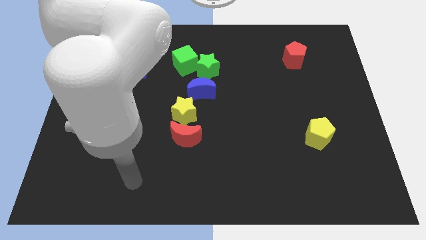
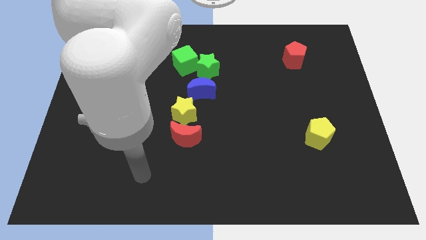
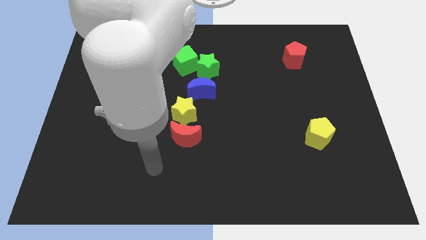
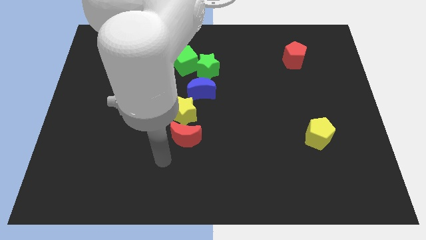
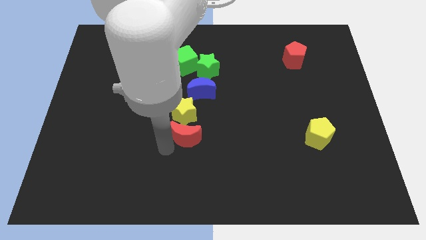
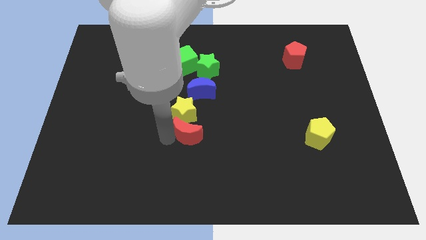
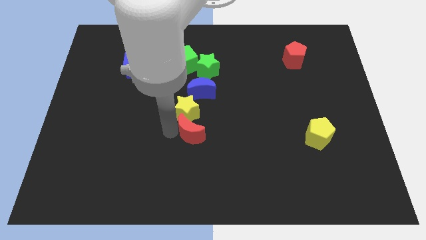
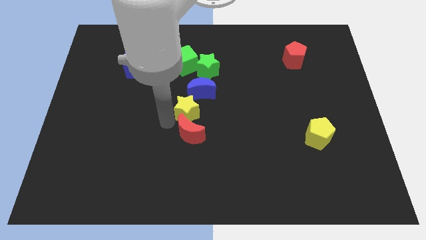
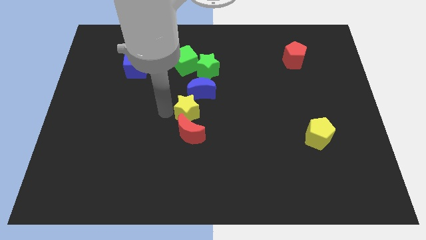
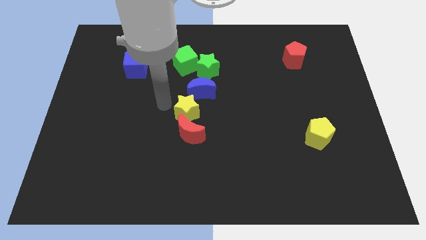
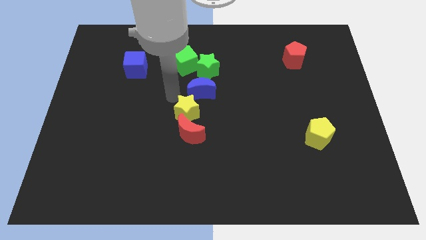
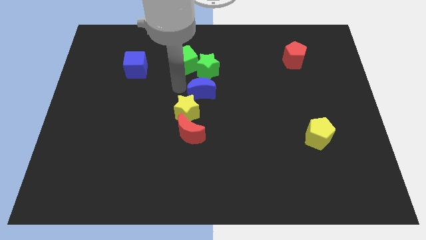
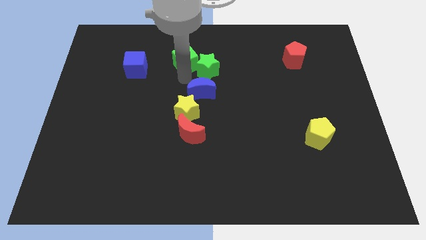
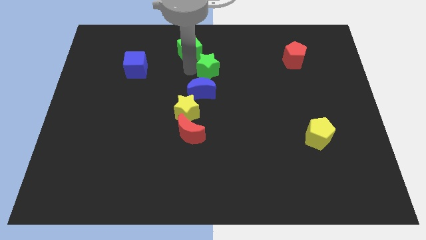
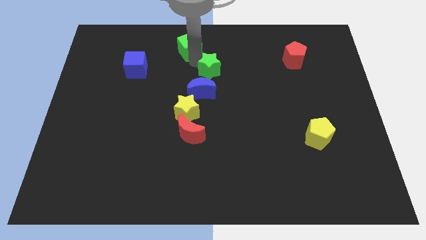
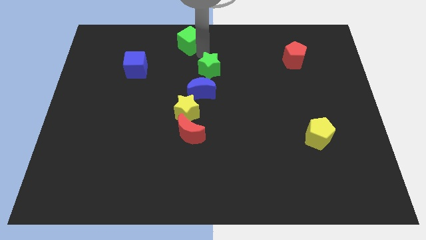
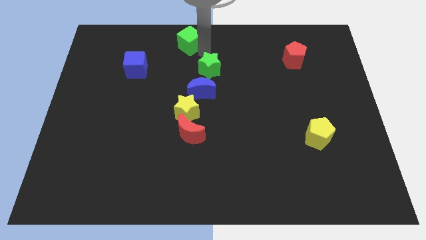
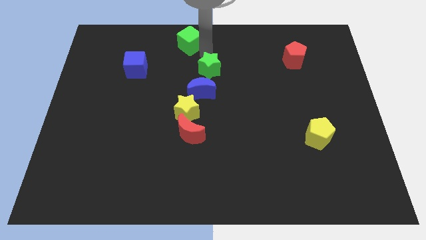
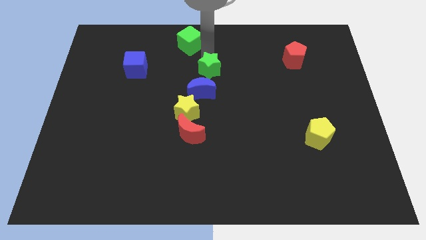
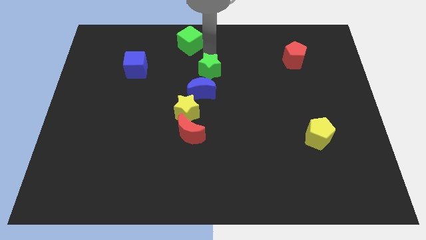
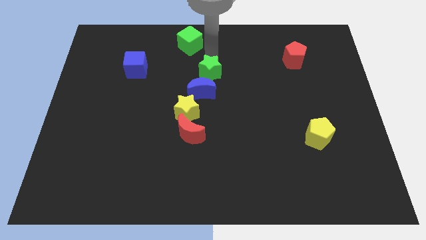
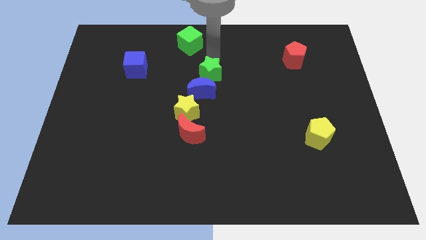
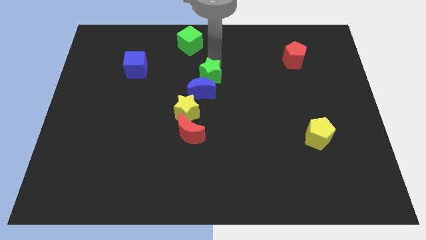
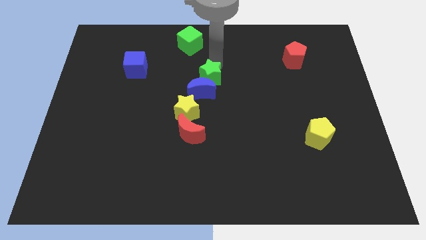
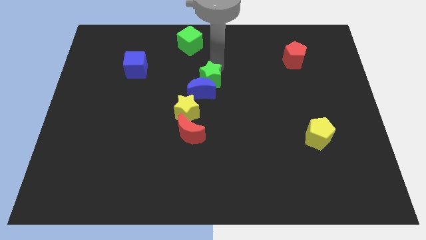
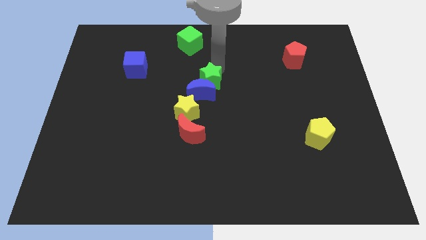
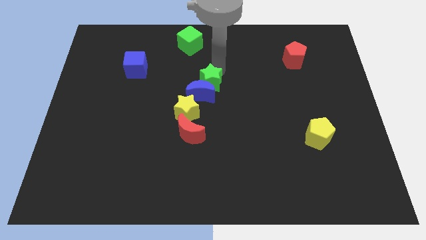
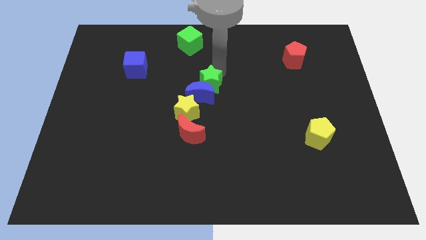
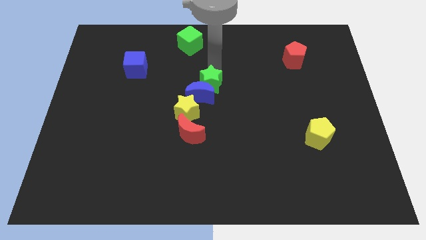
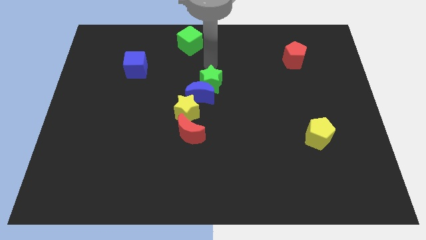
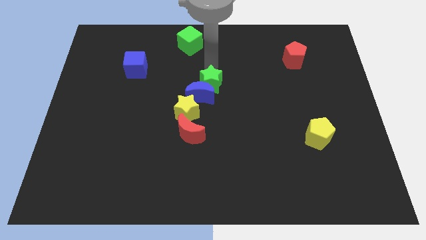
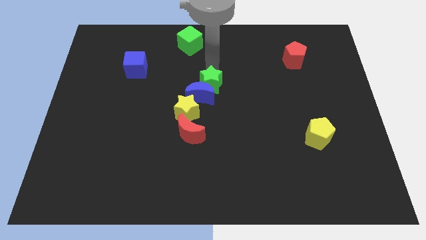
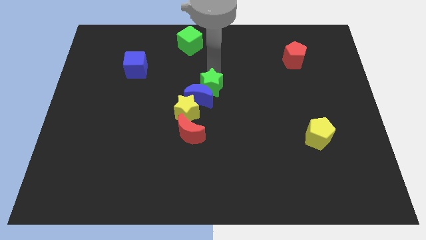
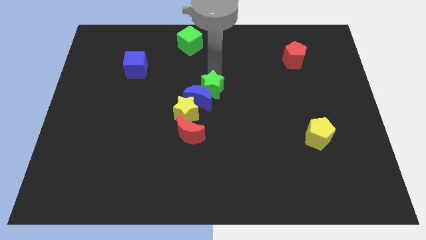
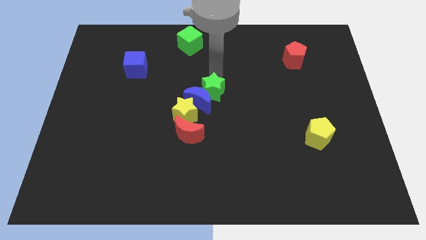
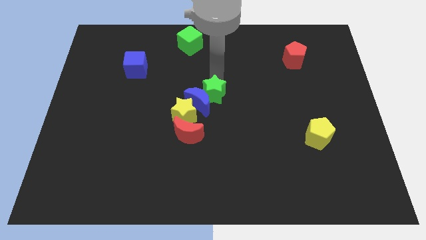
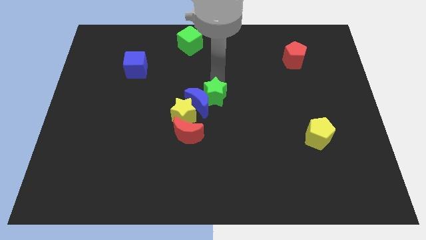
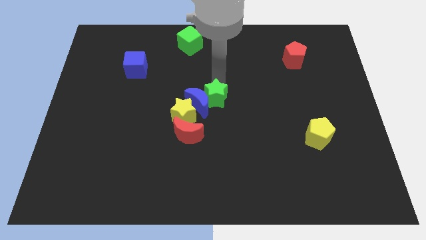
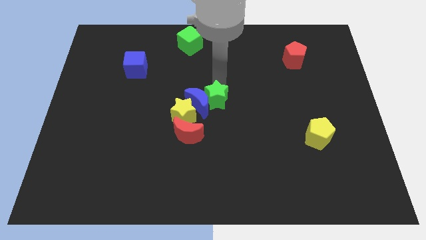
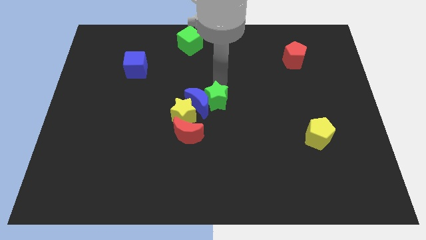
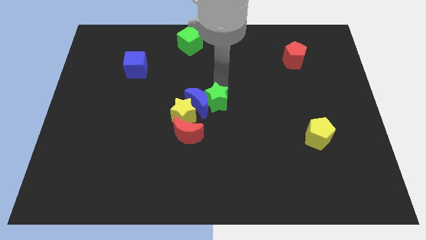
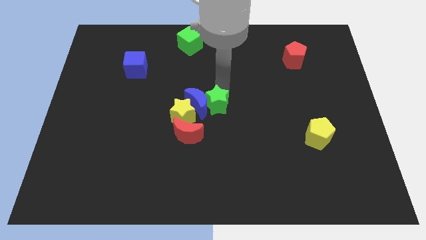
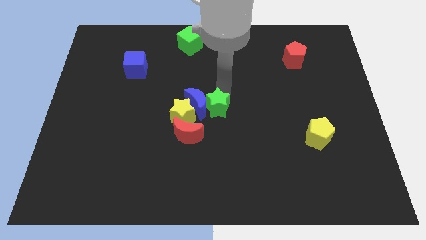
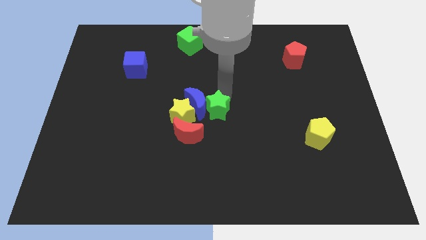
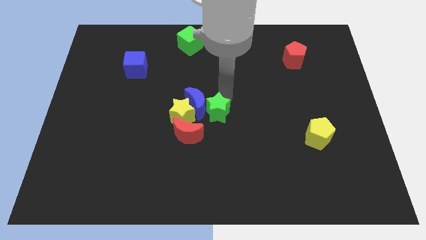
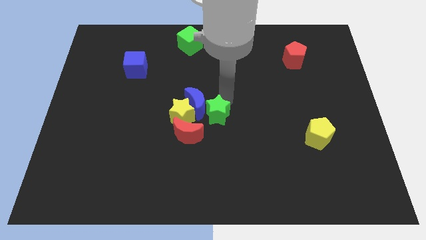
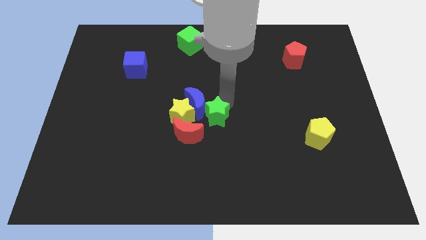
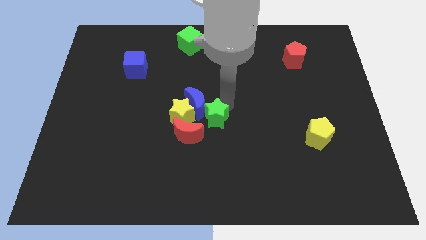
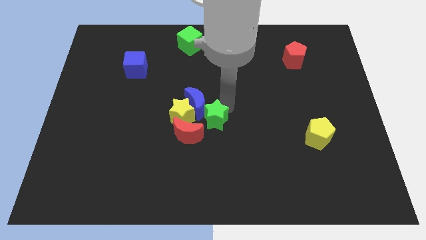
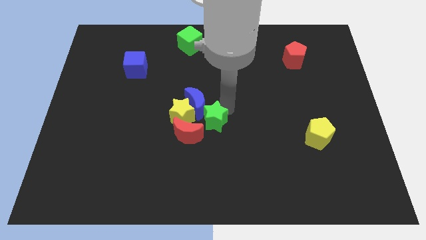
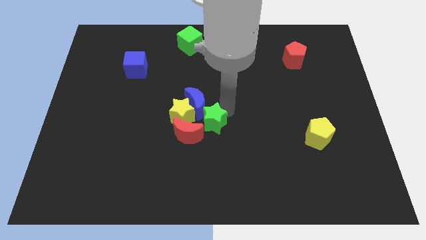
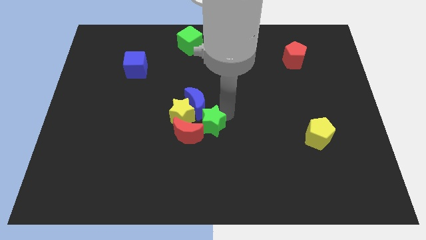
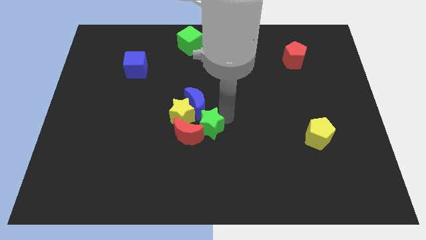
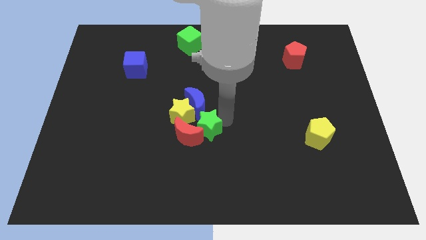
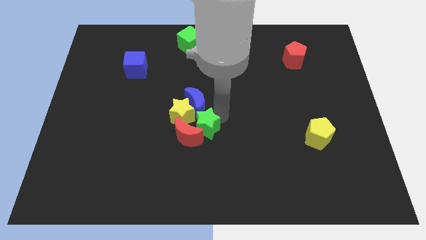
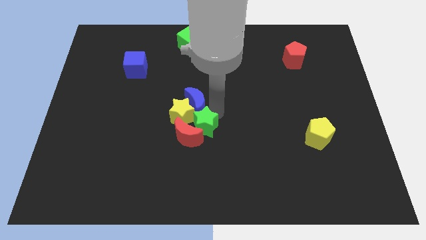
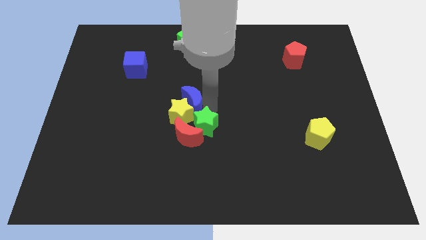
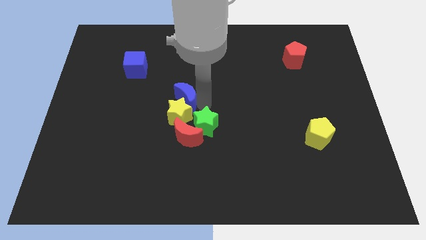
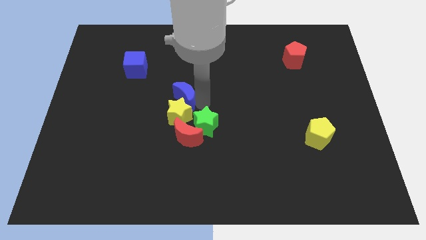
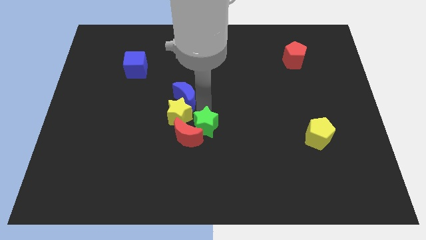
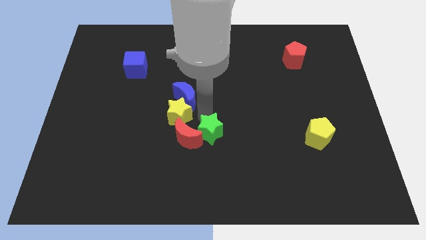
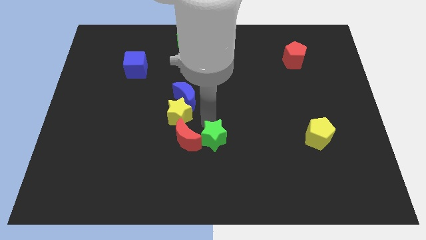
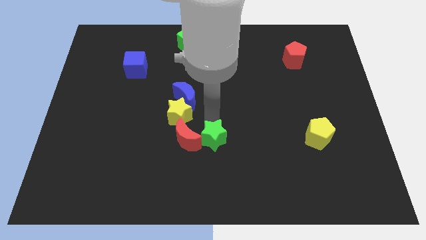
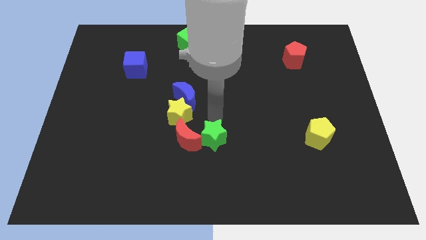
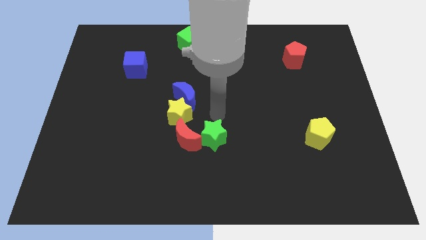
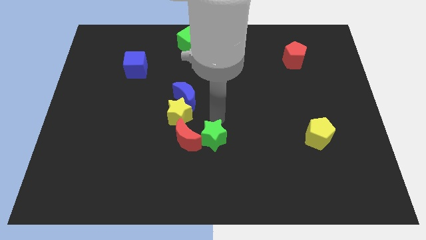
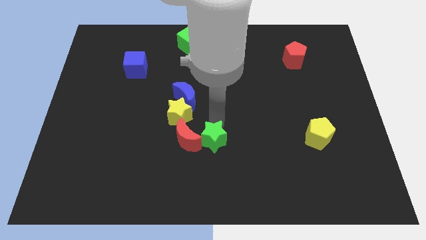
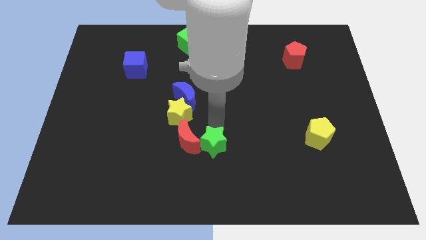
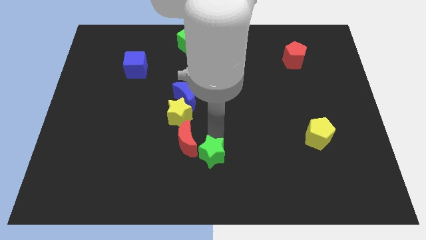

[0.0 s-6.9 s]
slide the green star to the bottom
